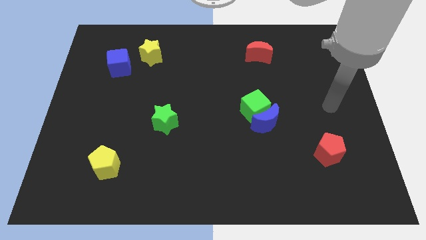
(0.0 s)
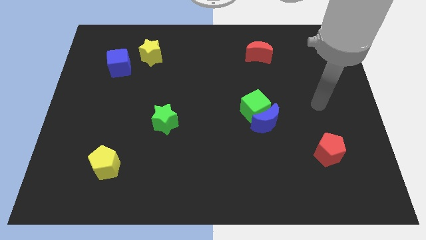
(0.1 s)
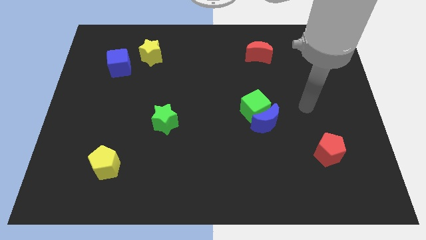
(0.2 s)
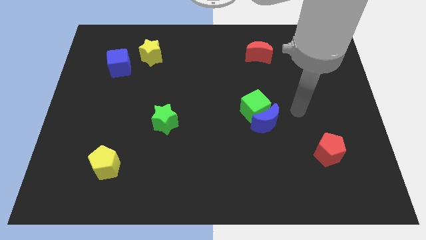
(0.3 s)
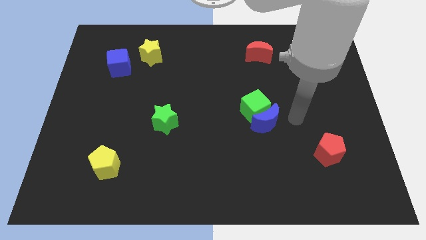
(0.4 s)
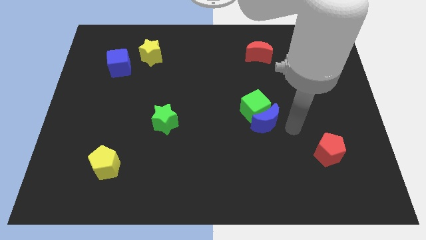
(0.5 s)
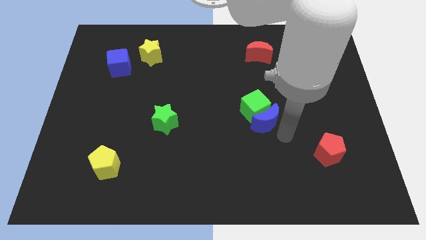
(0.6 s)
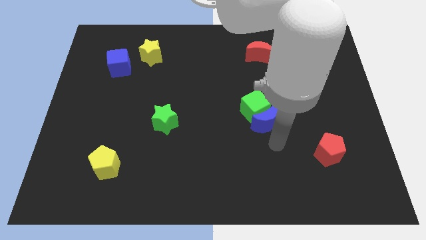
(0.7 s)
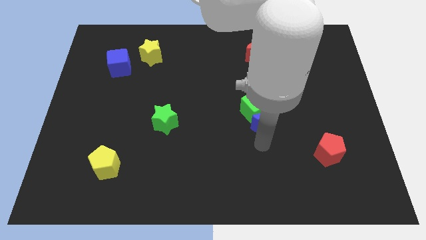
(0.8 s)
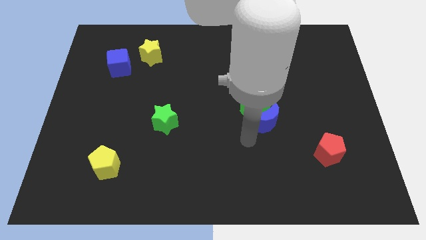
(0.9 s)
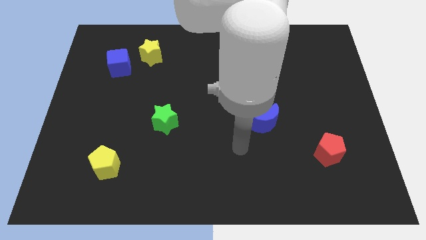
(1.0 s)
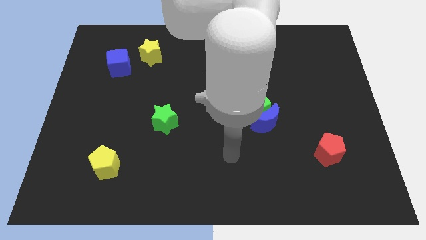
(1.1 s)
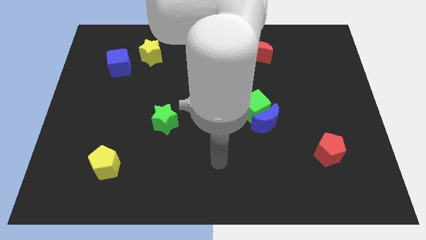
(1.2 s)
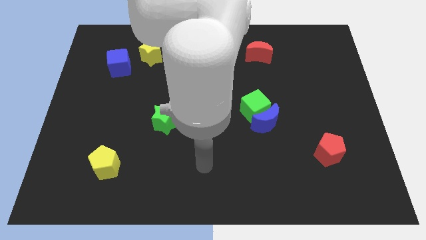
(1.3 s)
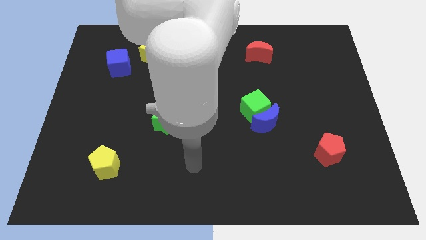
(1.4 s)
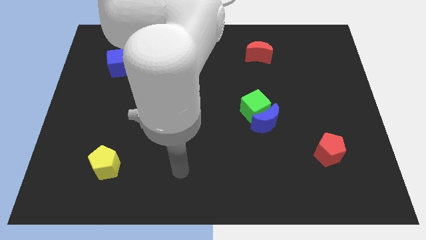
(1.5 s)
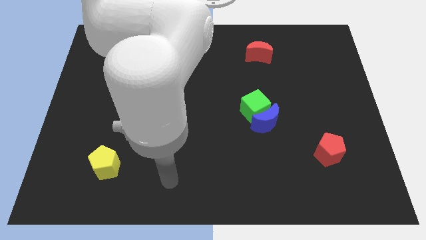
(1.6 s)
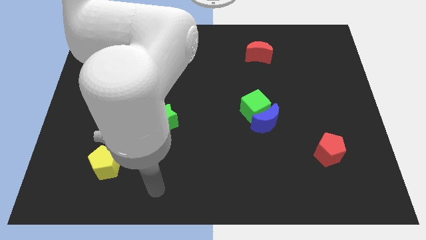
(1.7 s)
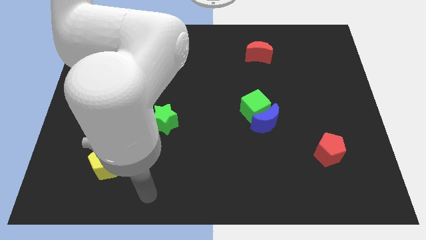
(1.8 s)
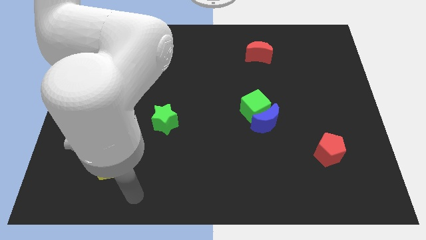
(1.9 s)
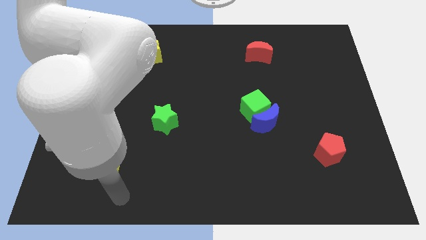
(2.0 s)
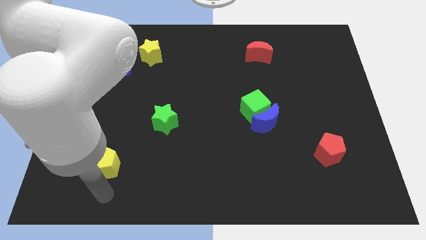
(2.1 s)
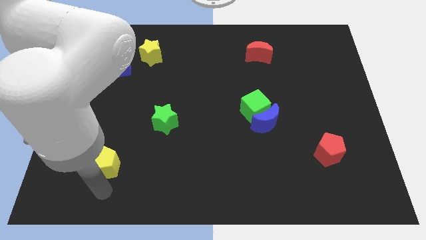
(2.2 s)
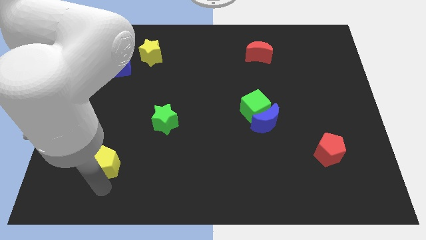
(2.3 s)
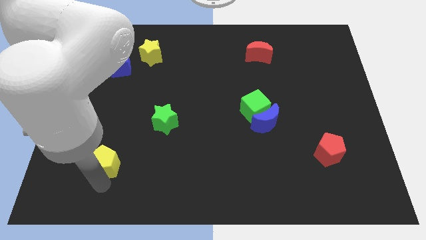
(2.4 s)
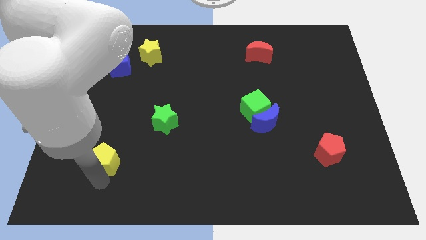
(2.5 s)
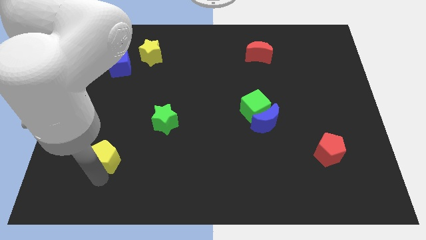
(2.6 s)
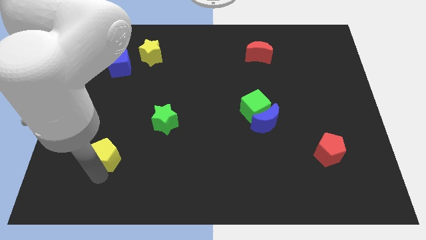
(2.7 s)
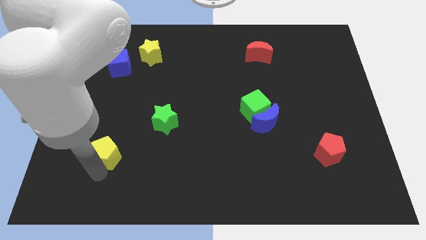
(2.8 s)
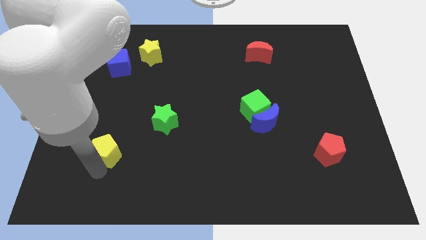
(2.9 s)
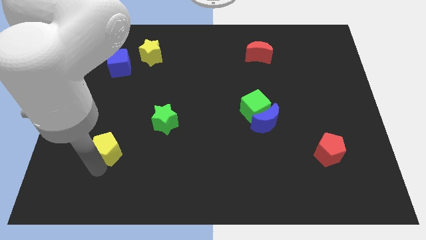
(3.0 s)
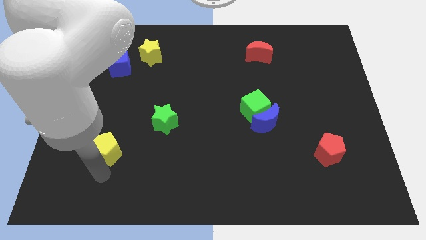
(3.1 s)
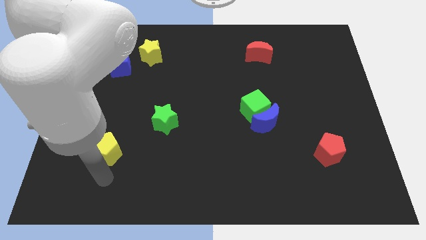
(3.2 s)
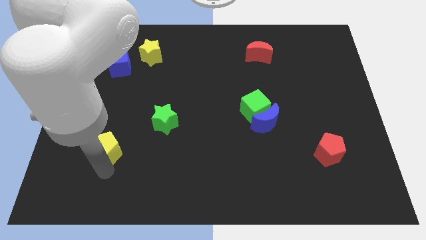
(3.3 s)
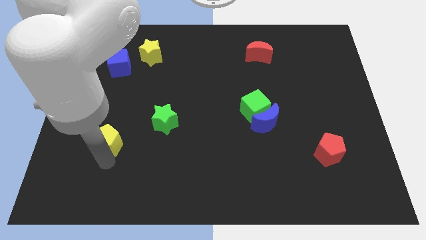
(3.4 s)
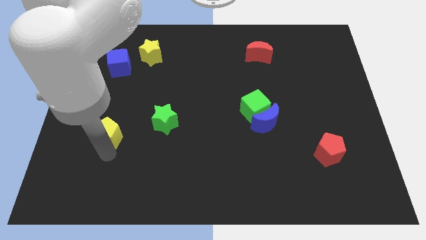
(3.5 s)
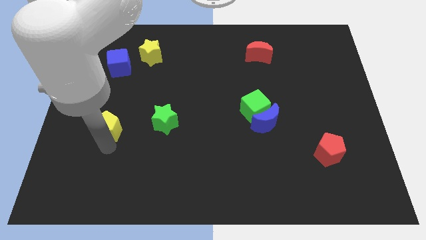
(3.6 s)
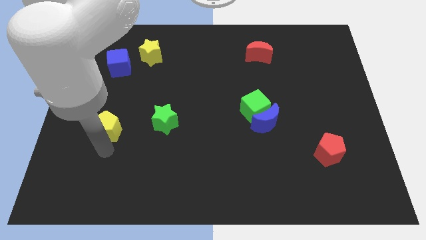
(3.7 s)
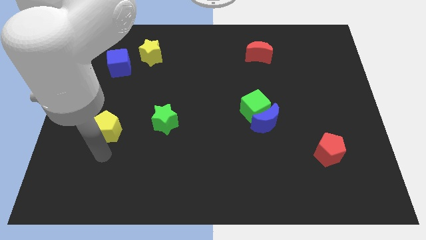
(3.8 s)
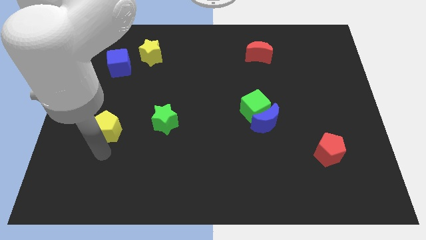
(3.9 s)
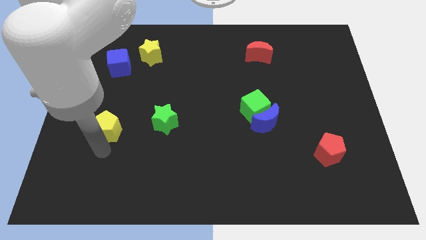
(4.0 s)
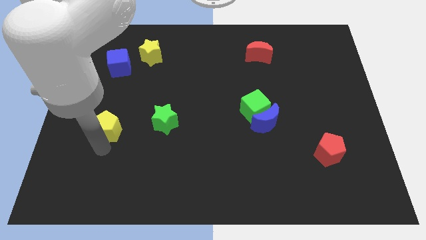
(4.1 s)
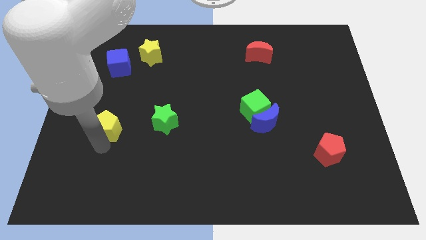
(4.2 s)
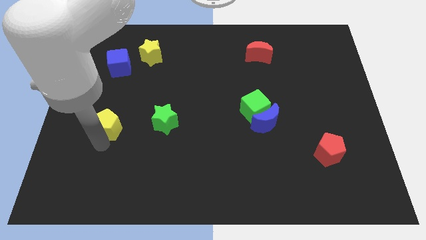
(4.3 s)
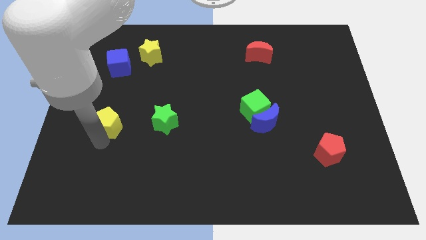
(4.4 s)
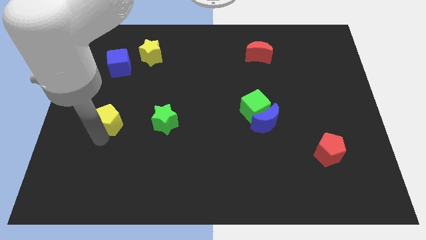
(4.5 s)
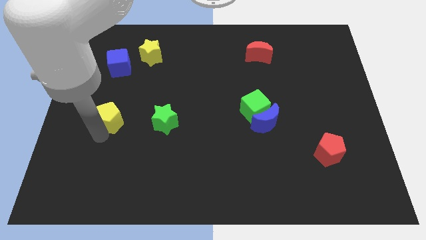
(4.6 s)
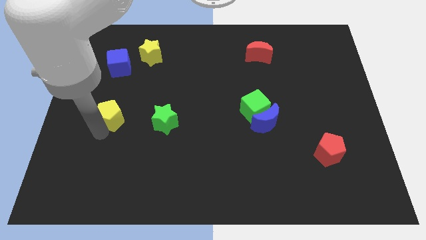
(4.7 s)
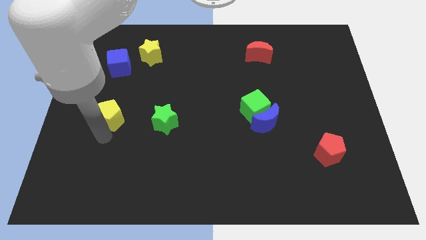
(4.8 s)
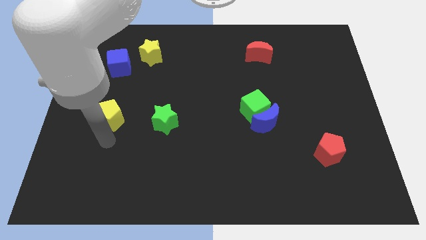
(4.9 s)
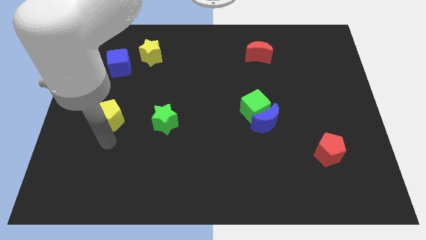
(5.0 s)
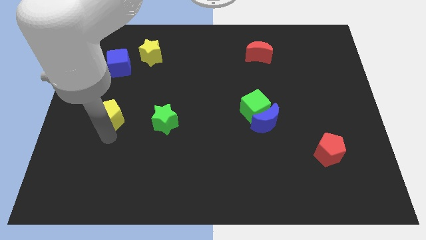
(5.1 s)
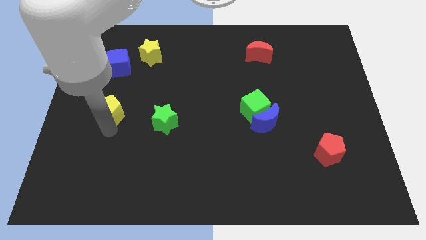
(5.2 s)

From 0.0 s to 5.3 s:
put the yellow pentagon to the bottom side of the blue cube
